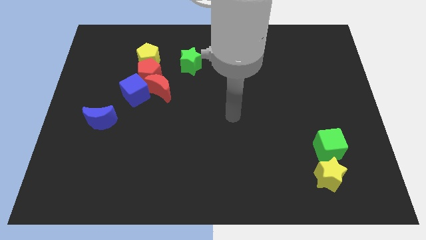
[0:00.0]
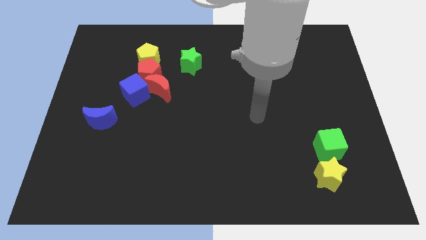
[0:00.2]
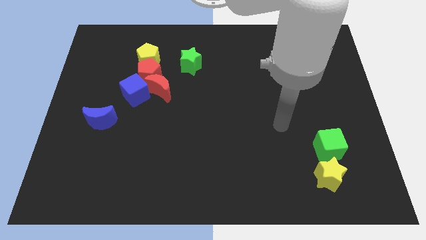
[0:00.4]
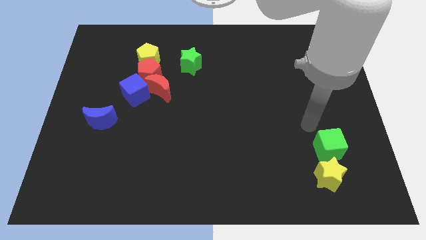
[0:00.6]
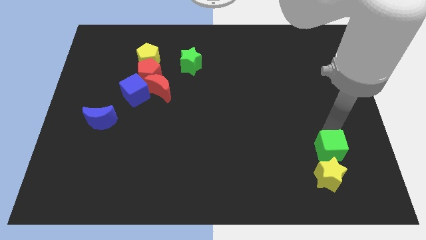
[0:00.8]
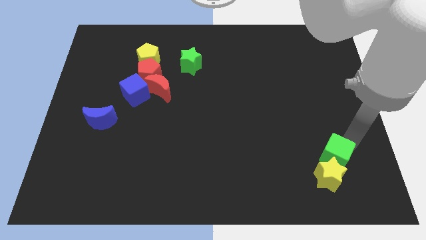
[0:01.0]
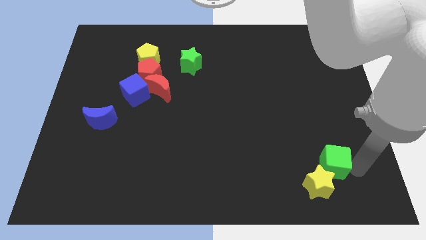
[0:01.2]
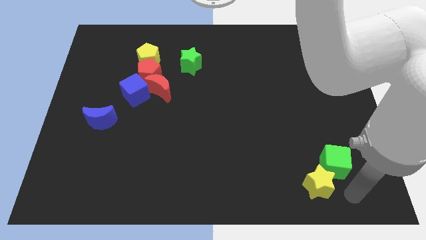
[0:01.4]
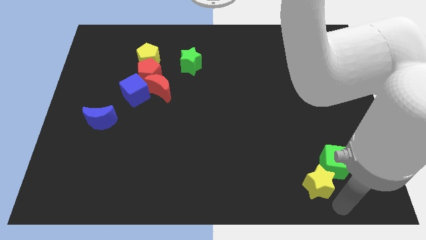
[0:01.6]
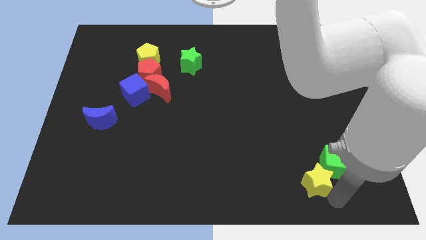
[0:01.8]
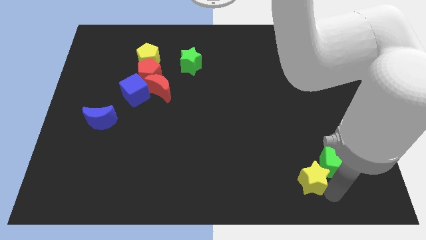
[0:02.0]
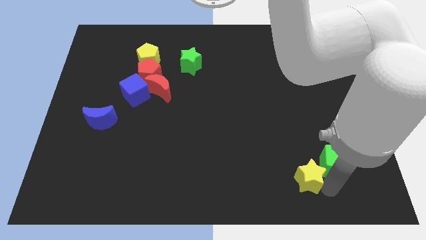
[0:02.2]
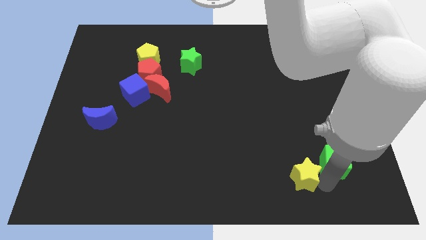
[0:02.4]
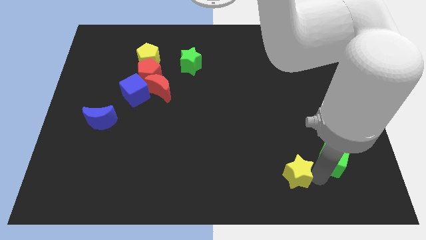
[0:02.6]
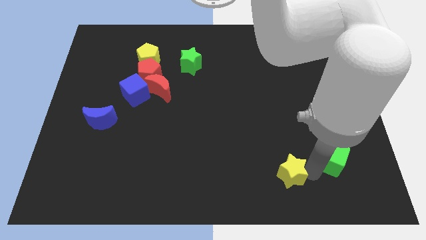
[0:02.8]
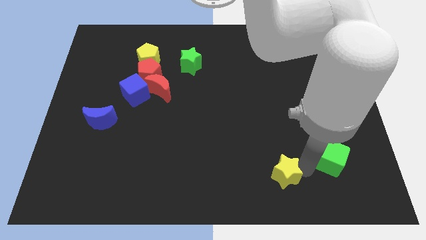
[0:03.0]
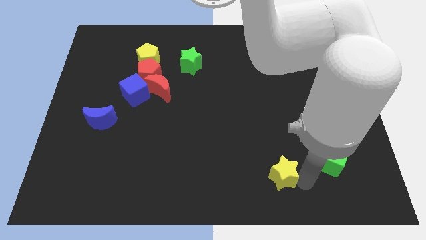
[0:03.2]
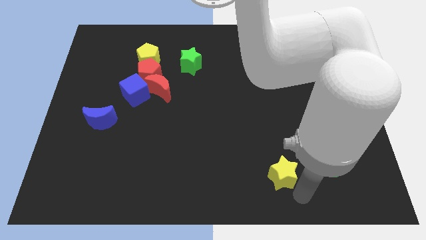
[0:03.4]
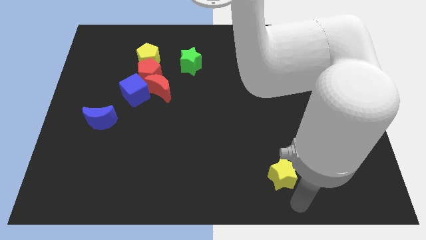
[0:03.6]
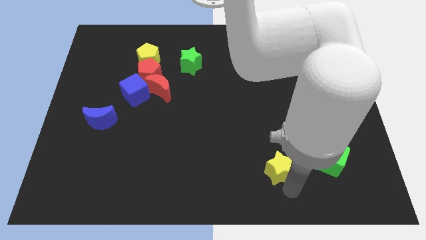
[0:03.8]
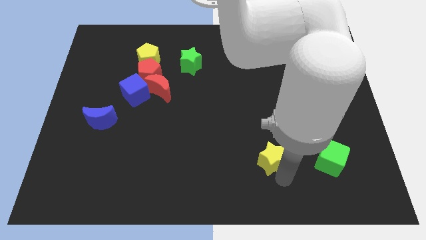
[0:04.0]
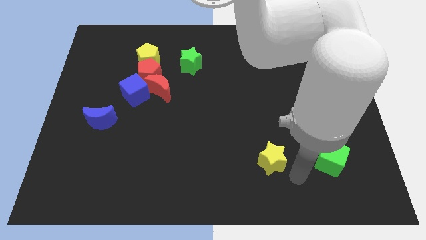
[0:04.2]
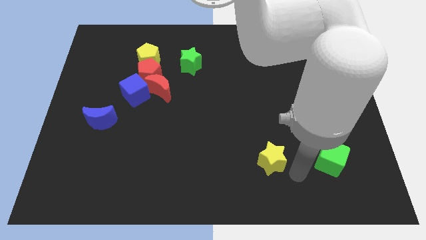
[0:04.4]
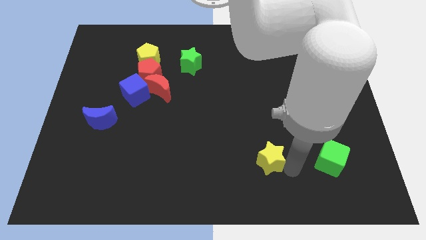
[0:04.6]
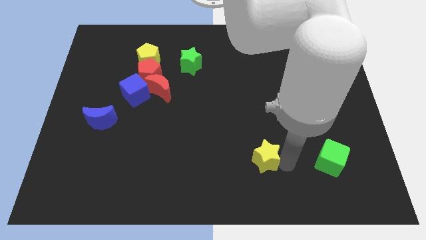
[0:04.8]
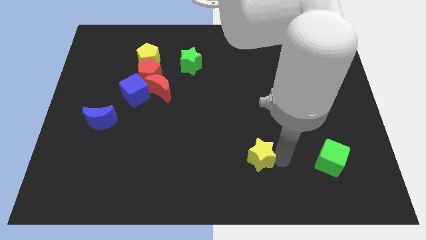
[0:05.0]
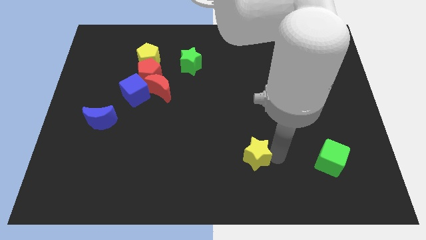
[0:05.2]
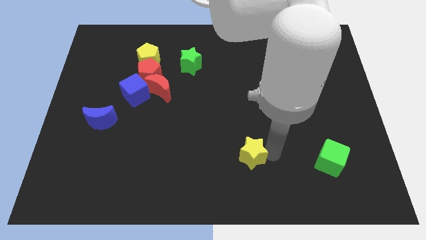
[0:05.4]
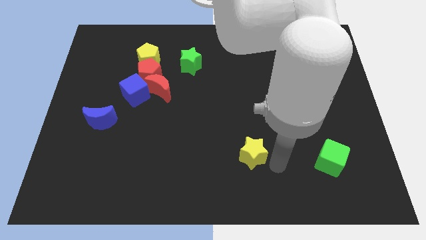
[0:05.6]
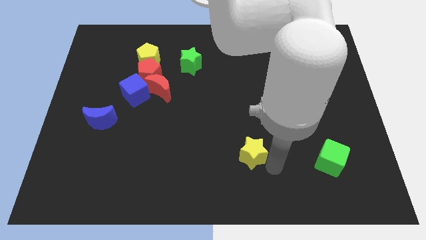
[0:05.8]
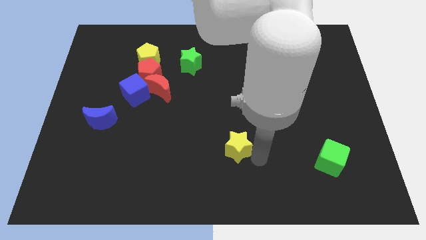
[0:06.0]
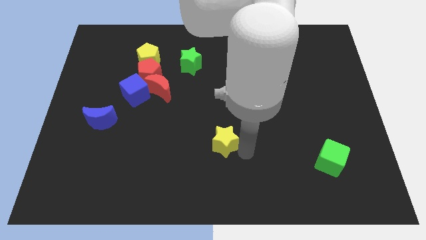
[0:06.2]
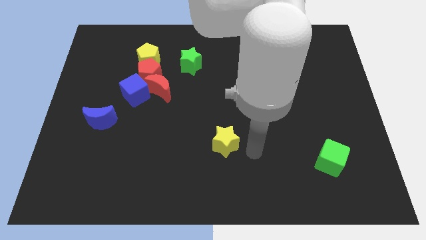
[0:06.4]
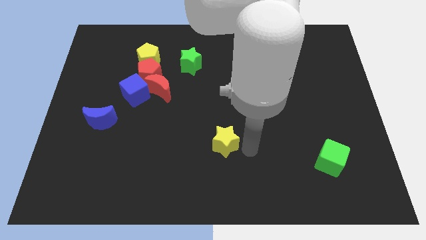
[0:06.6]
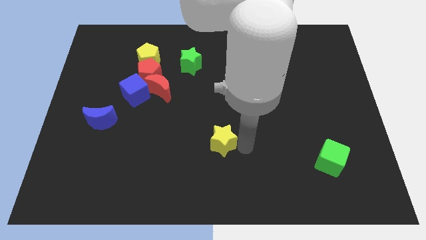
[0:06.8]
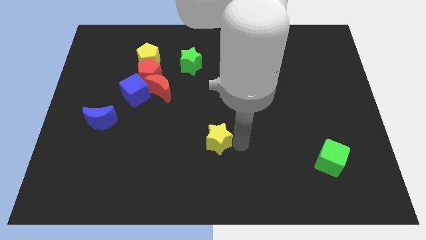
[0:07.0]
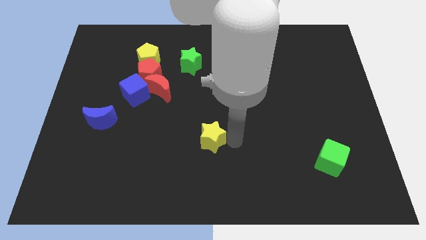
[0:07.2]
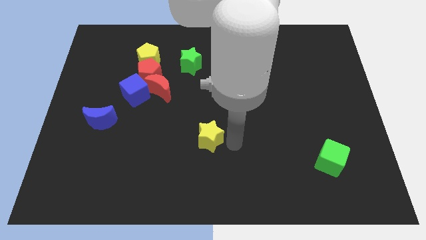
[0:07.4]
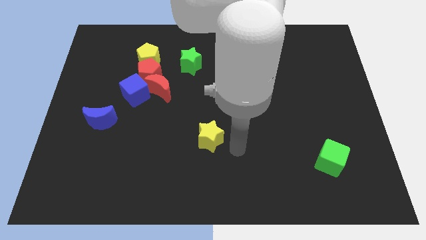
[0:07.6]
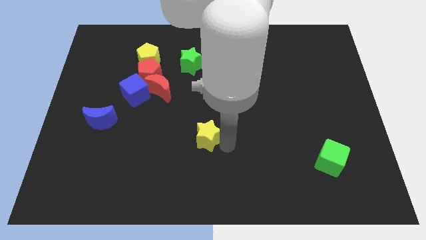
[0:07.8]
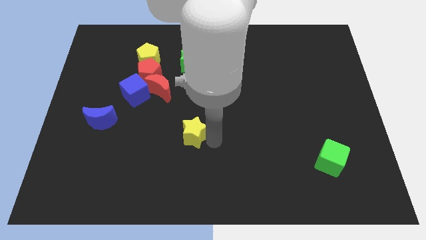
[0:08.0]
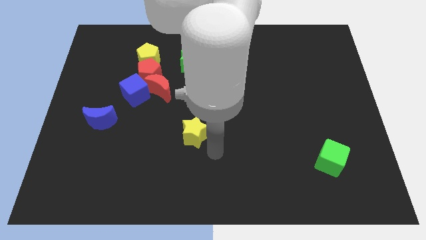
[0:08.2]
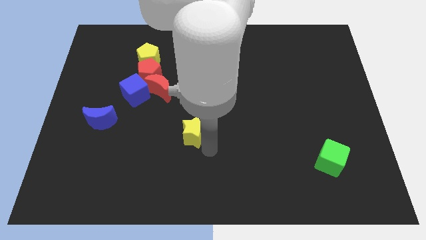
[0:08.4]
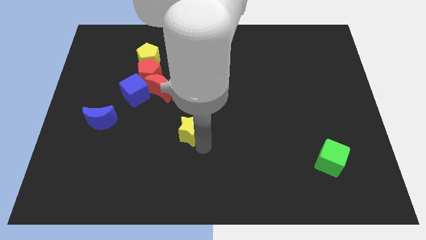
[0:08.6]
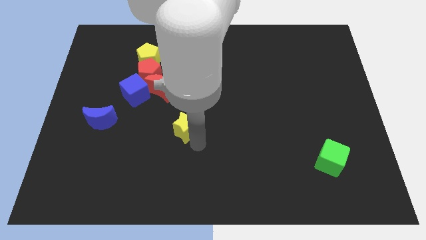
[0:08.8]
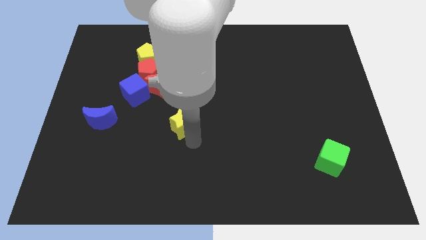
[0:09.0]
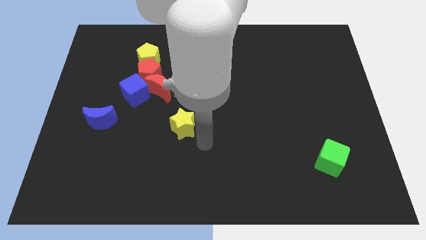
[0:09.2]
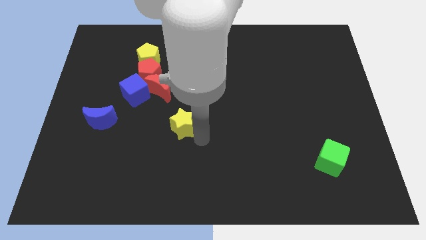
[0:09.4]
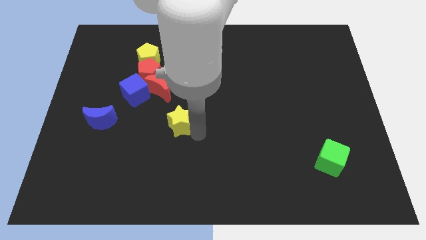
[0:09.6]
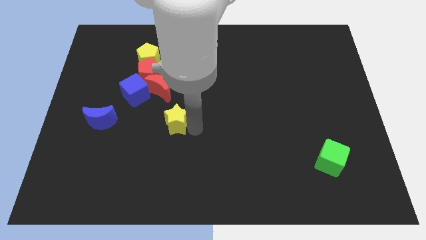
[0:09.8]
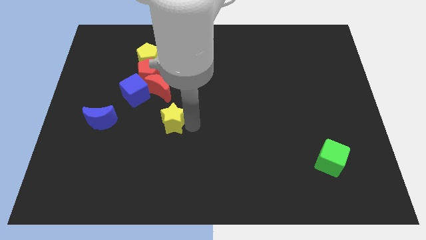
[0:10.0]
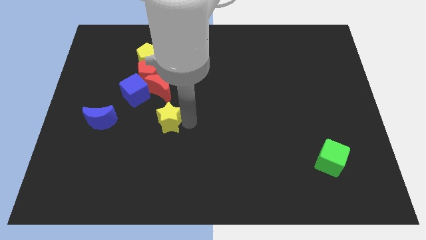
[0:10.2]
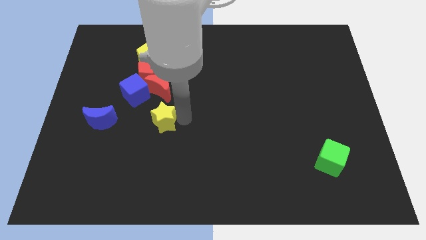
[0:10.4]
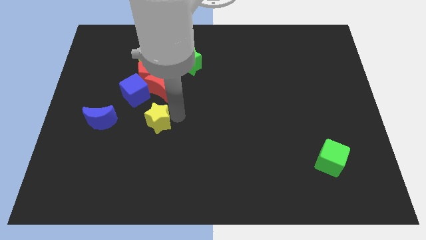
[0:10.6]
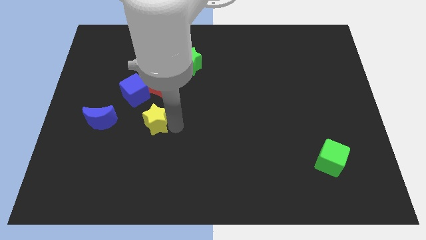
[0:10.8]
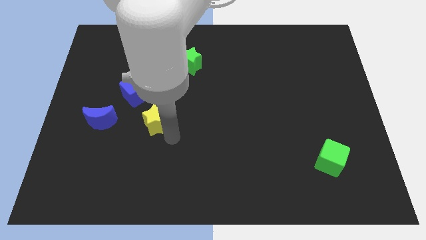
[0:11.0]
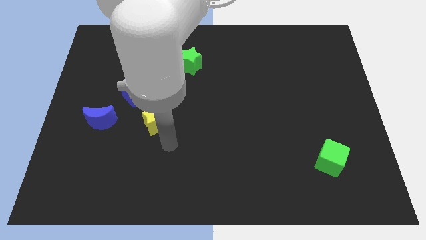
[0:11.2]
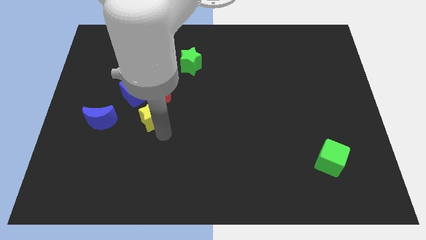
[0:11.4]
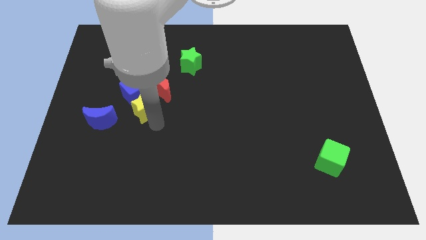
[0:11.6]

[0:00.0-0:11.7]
move the yellow star close to the blue cube

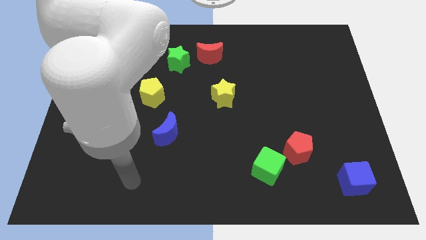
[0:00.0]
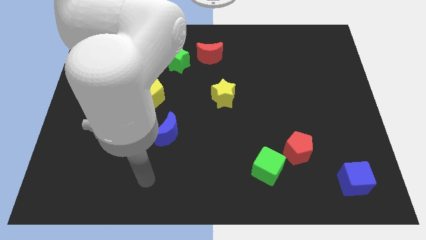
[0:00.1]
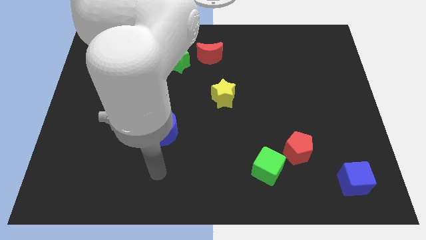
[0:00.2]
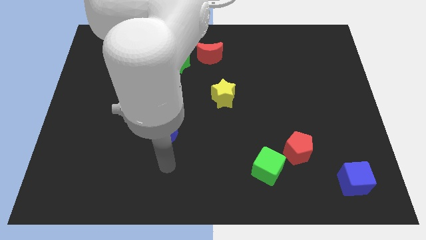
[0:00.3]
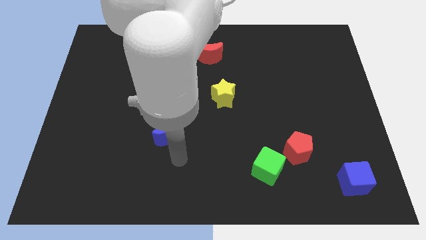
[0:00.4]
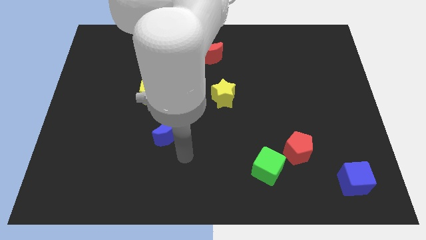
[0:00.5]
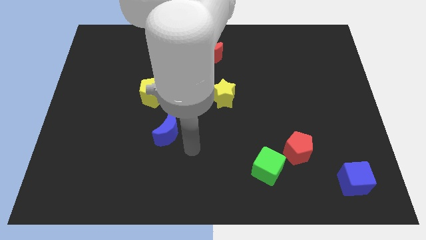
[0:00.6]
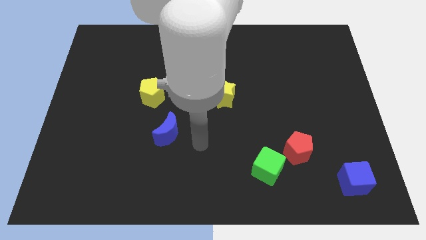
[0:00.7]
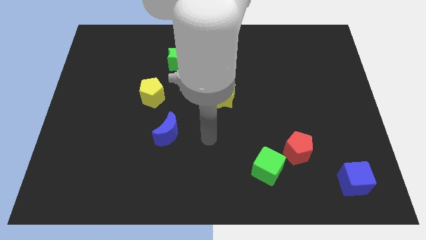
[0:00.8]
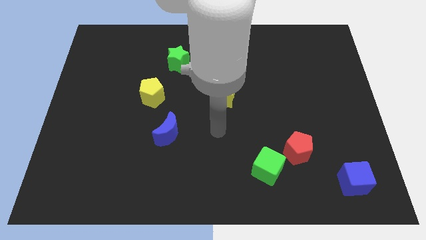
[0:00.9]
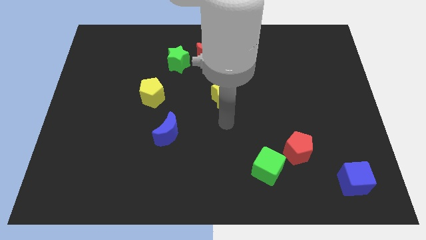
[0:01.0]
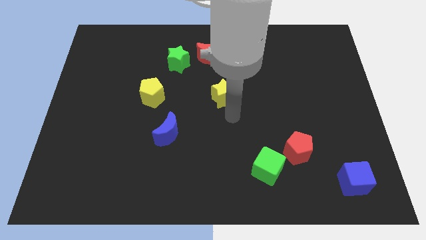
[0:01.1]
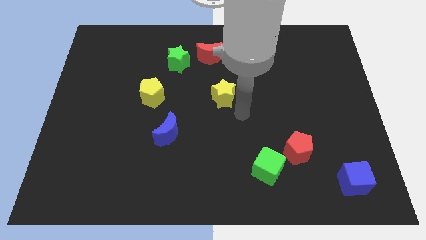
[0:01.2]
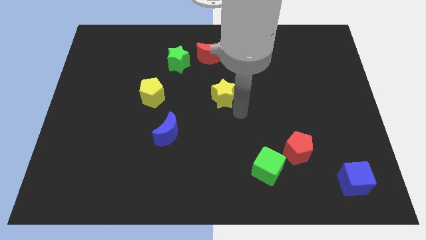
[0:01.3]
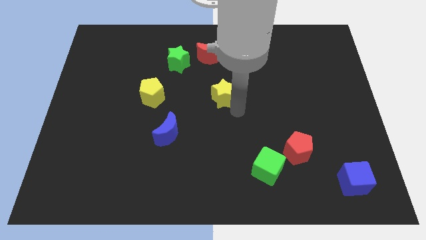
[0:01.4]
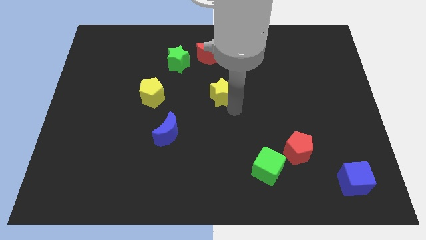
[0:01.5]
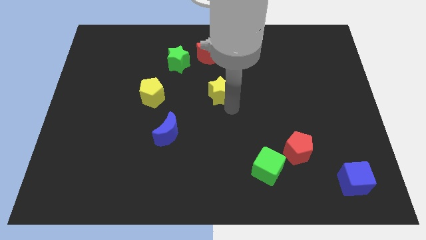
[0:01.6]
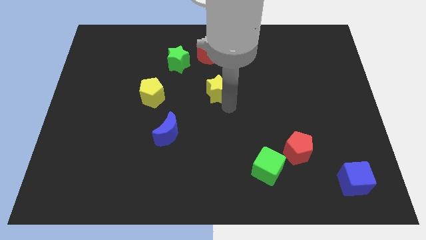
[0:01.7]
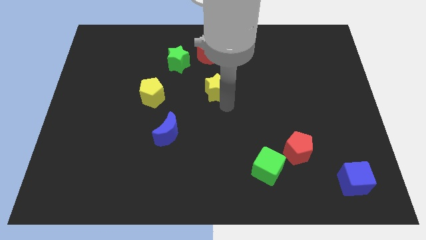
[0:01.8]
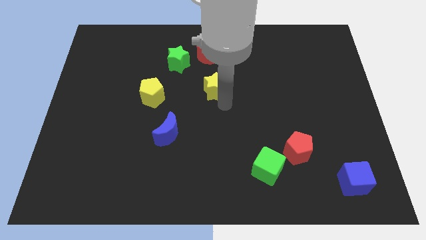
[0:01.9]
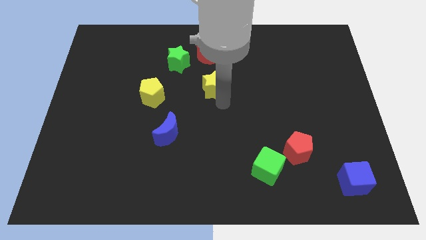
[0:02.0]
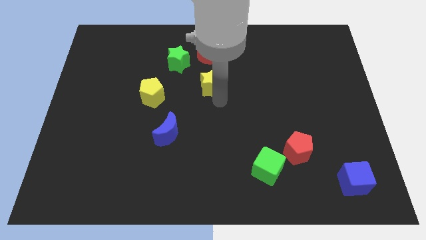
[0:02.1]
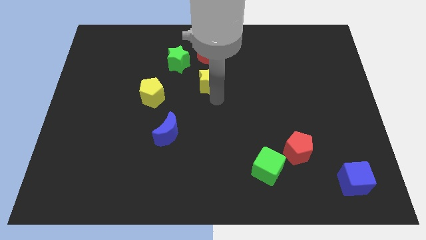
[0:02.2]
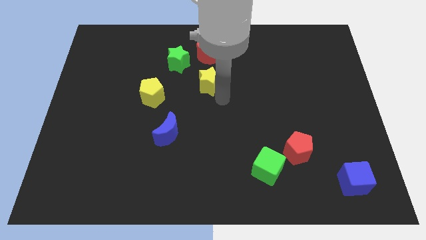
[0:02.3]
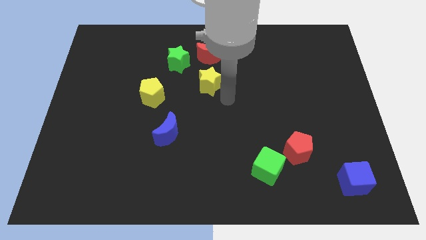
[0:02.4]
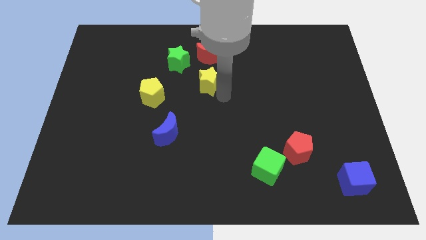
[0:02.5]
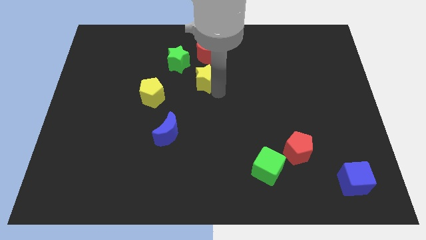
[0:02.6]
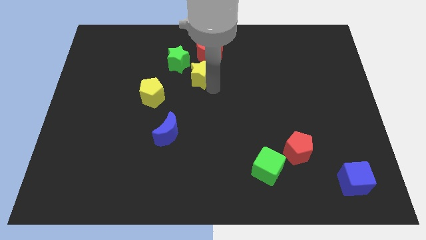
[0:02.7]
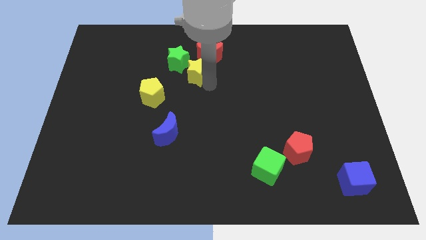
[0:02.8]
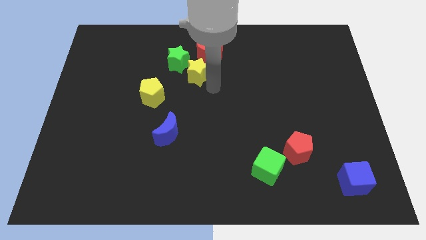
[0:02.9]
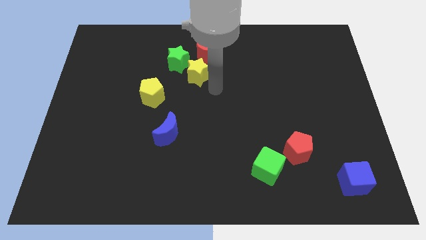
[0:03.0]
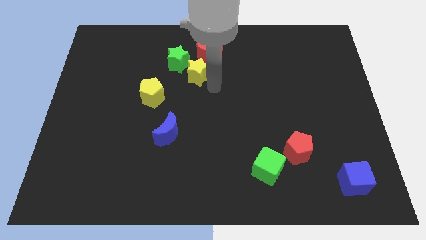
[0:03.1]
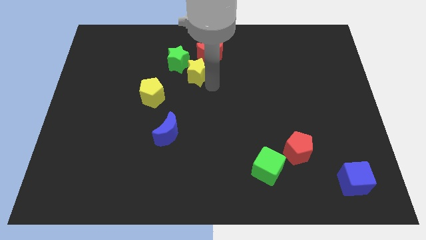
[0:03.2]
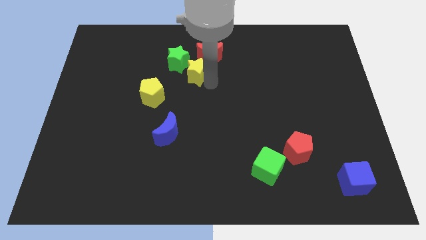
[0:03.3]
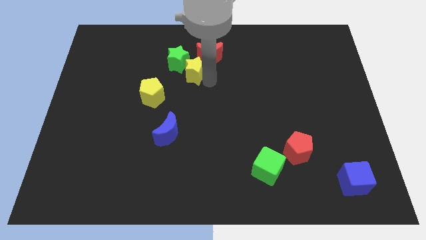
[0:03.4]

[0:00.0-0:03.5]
slide the yellow star towards the green star
